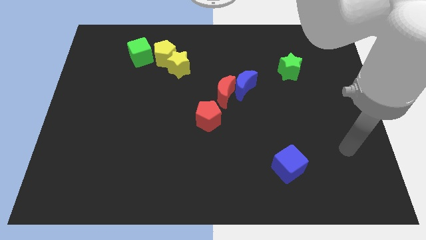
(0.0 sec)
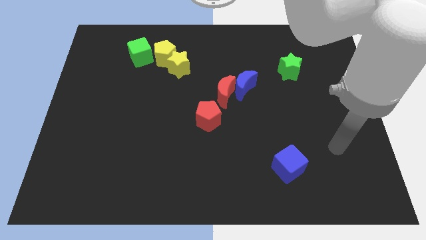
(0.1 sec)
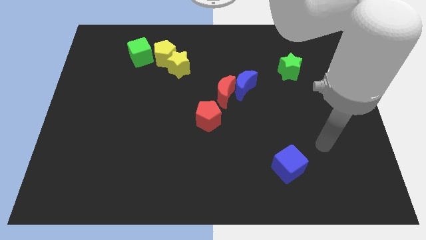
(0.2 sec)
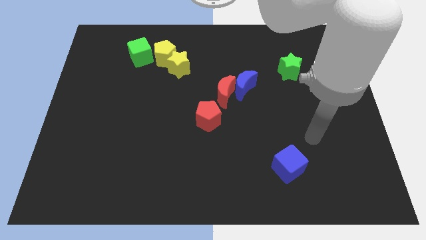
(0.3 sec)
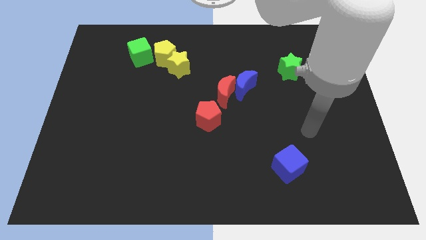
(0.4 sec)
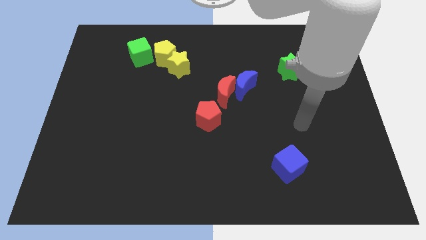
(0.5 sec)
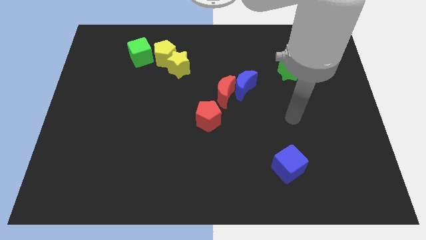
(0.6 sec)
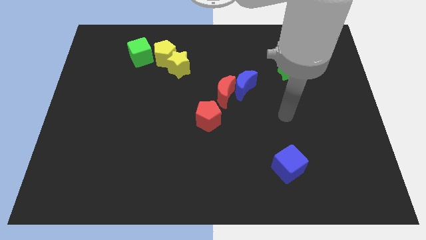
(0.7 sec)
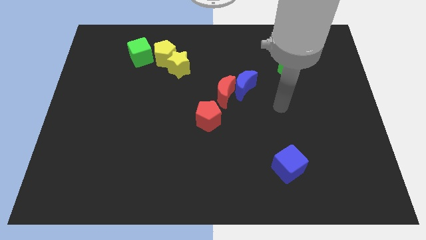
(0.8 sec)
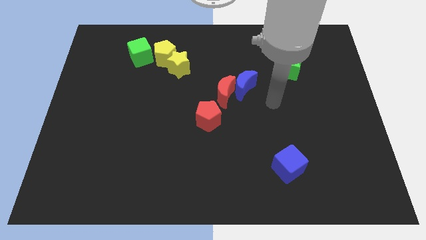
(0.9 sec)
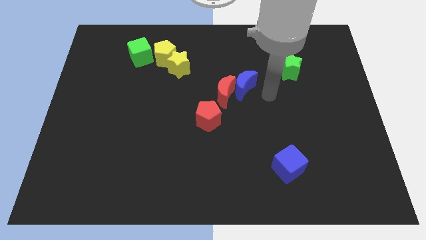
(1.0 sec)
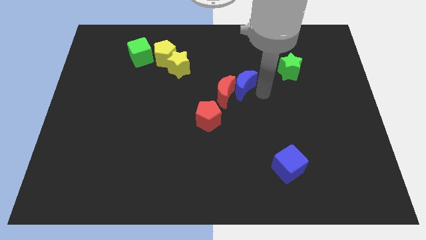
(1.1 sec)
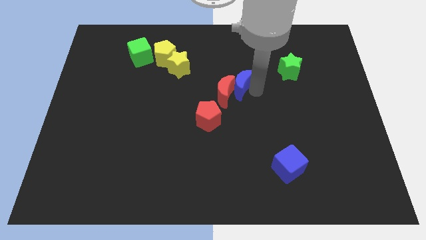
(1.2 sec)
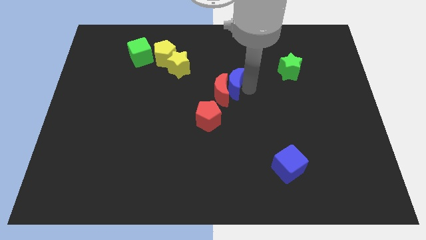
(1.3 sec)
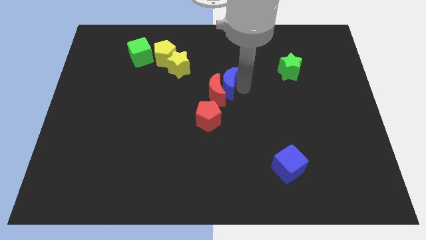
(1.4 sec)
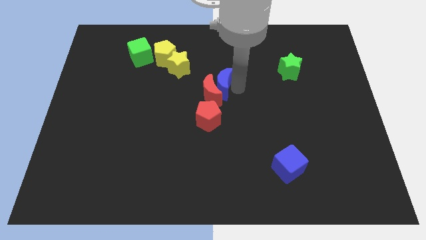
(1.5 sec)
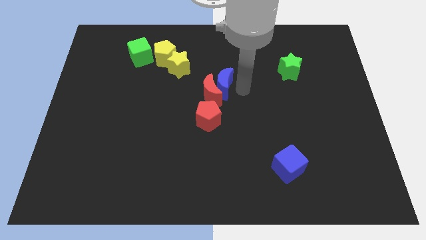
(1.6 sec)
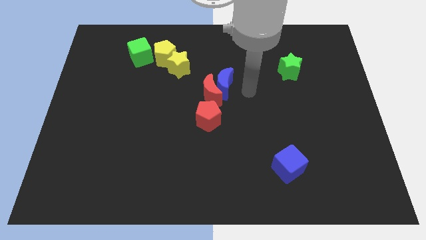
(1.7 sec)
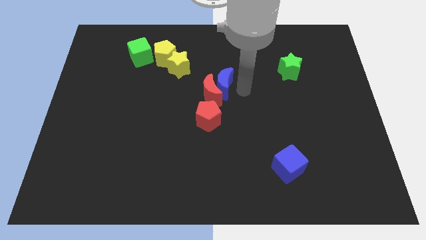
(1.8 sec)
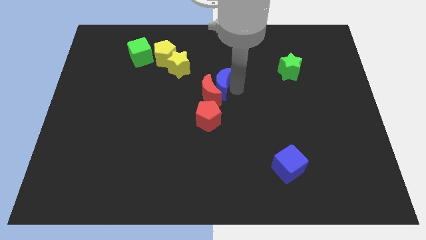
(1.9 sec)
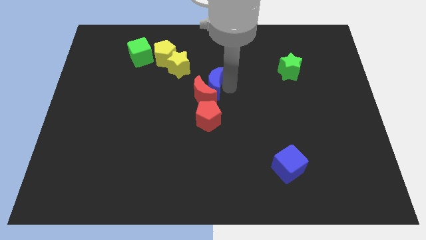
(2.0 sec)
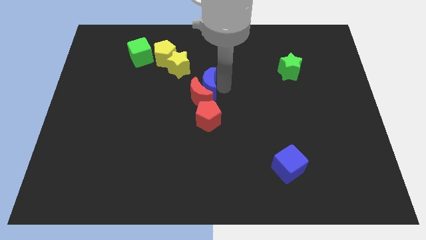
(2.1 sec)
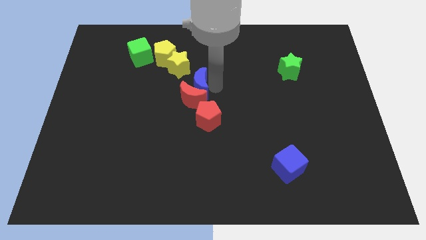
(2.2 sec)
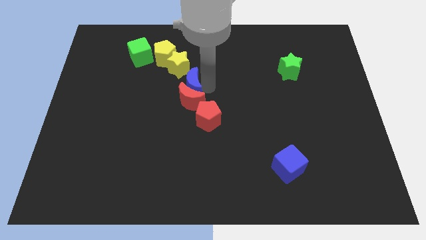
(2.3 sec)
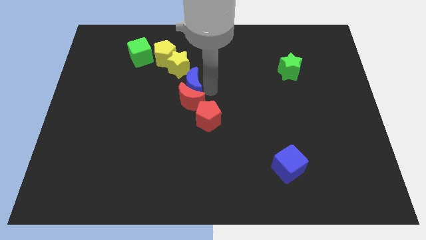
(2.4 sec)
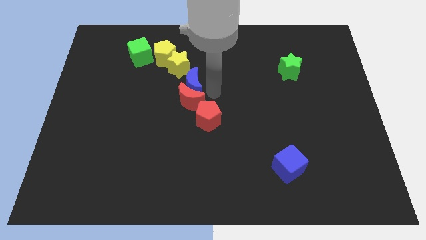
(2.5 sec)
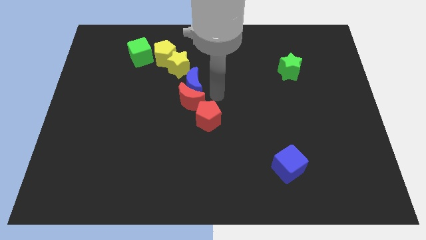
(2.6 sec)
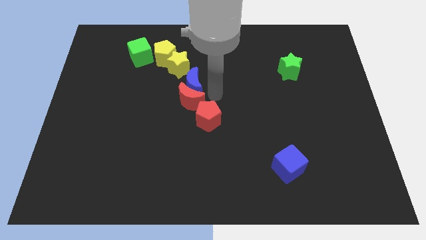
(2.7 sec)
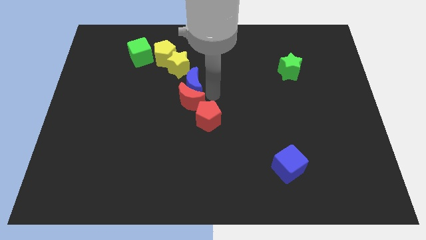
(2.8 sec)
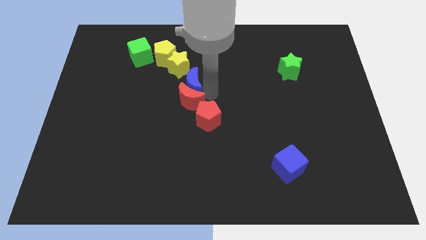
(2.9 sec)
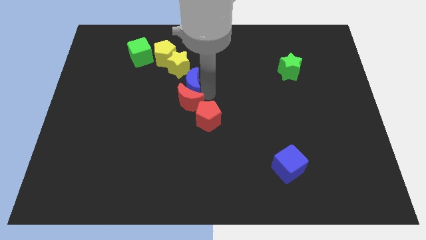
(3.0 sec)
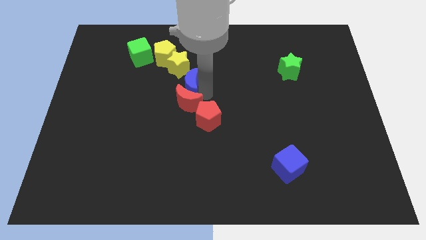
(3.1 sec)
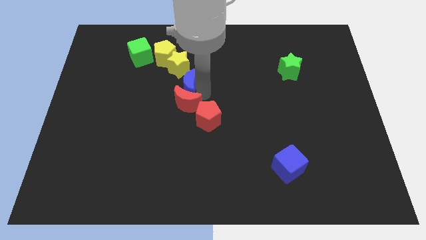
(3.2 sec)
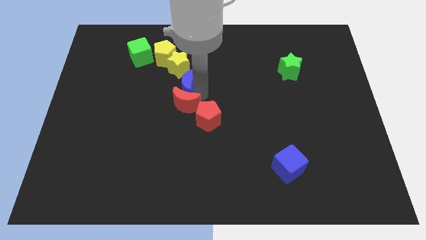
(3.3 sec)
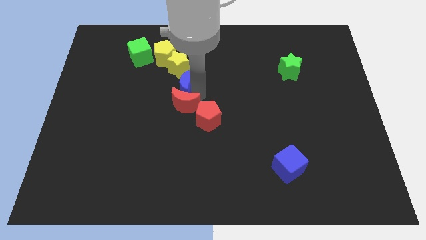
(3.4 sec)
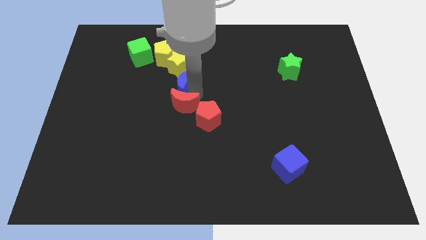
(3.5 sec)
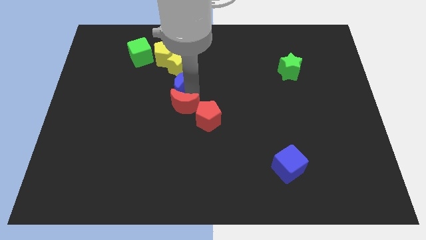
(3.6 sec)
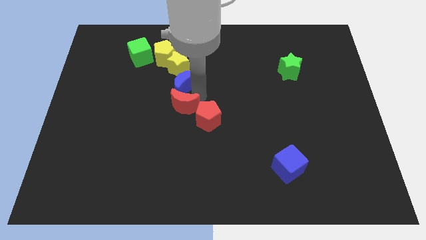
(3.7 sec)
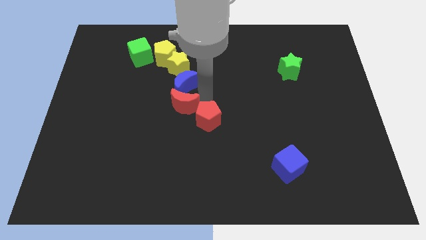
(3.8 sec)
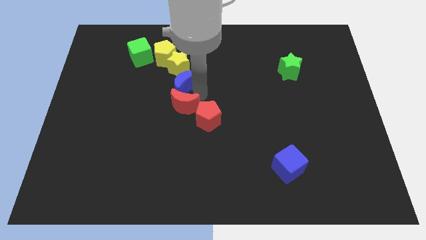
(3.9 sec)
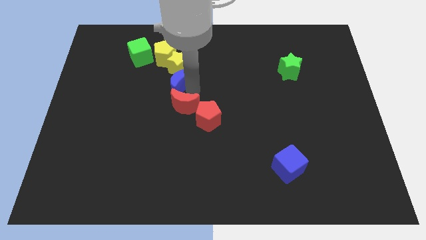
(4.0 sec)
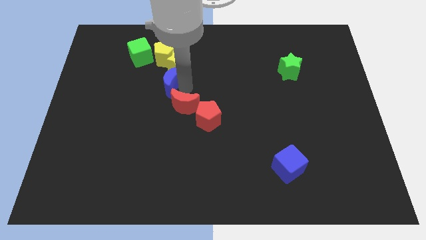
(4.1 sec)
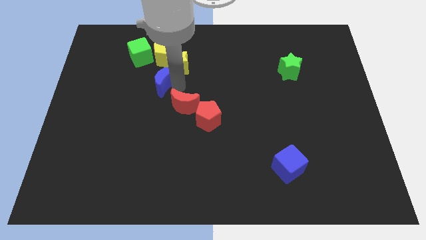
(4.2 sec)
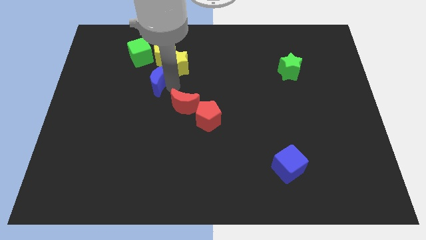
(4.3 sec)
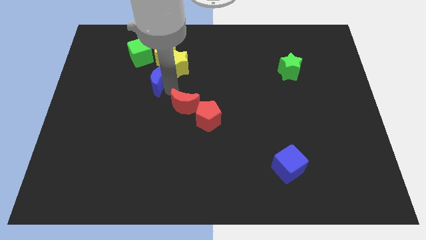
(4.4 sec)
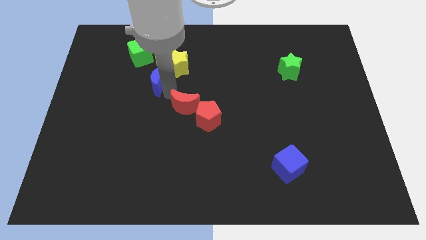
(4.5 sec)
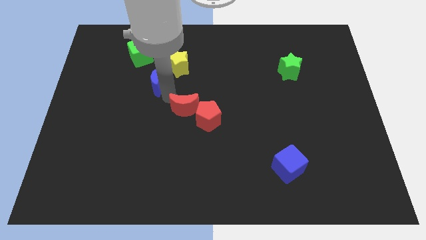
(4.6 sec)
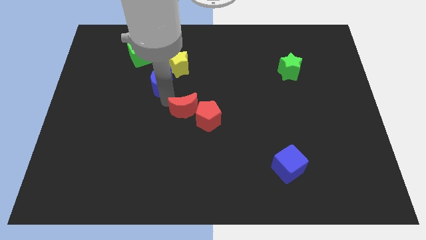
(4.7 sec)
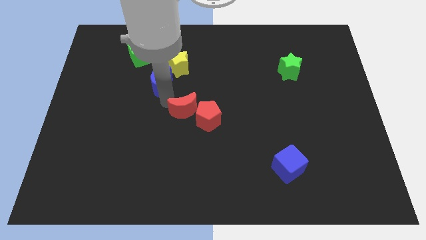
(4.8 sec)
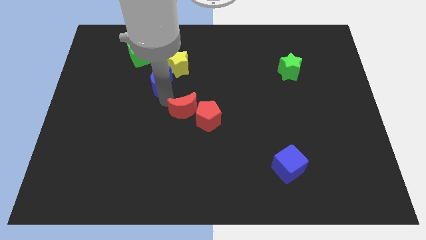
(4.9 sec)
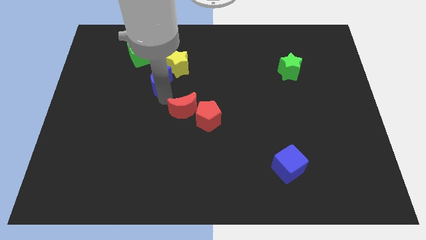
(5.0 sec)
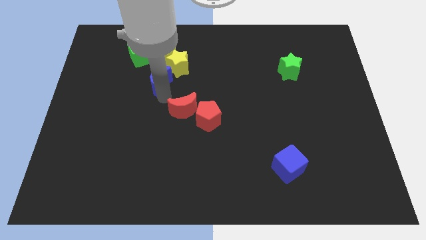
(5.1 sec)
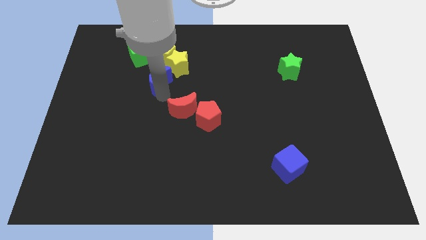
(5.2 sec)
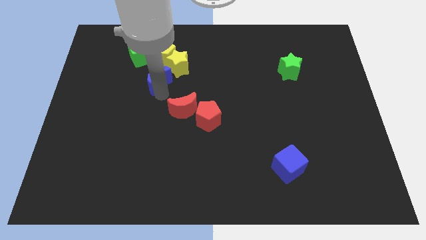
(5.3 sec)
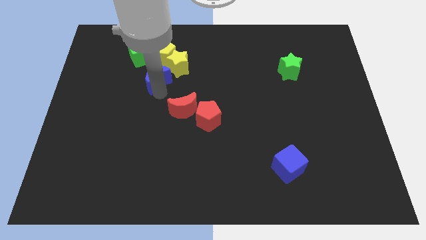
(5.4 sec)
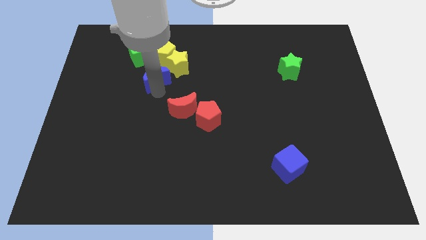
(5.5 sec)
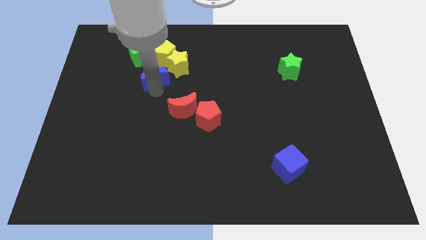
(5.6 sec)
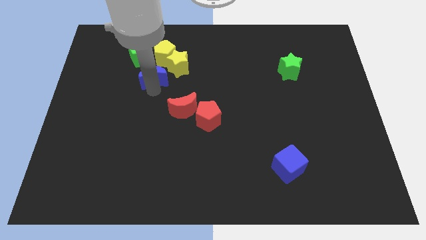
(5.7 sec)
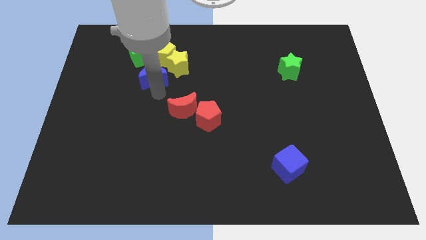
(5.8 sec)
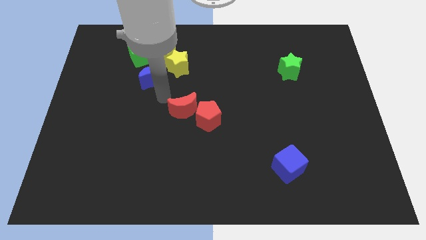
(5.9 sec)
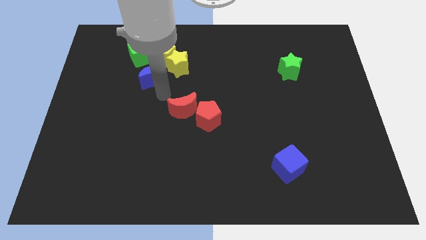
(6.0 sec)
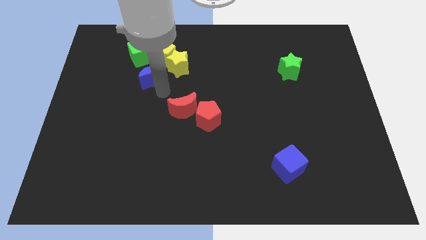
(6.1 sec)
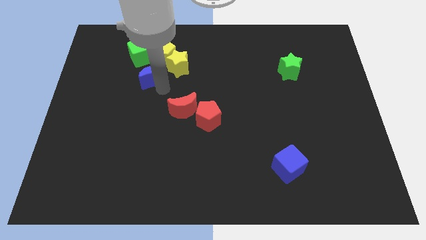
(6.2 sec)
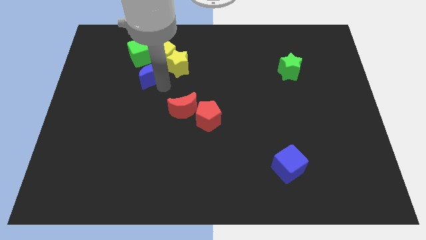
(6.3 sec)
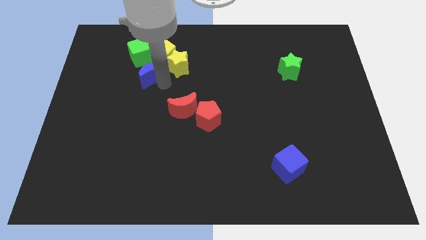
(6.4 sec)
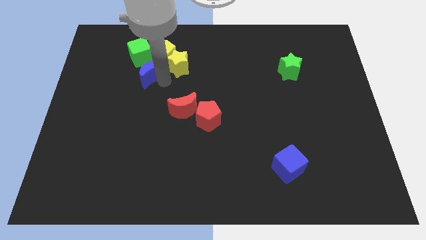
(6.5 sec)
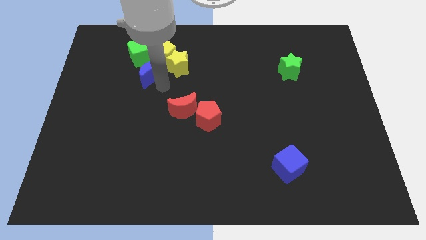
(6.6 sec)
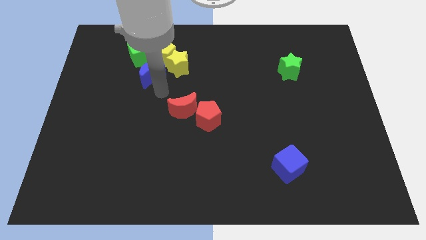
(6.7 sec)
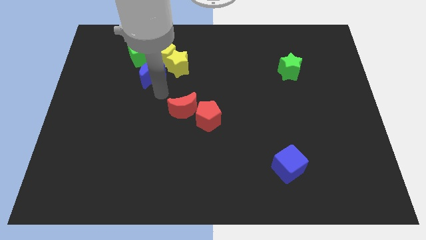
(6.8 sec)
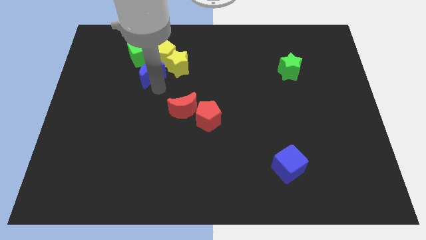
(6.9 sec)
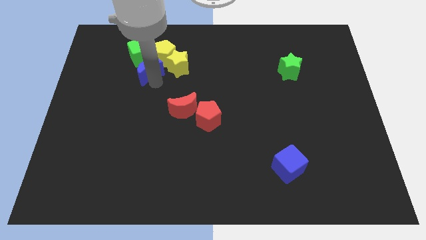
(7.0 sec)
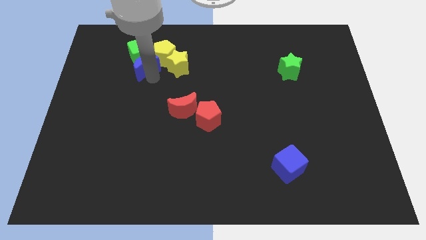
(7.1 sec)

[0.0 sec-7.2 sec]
push the blue moon towards the green cube
